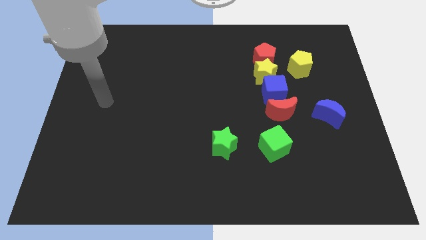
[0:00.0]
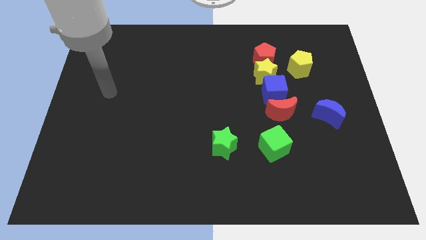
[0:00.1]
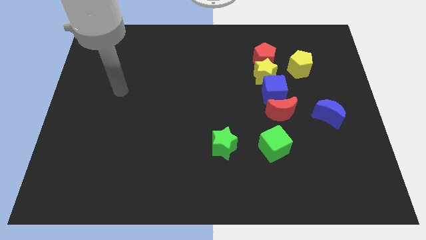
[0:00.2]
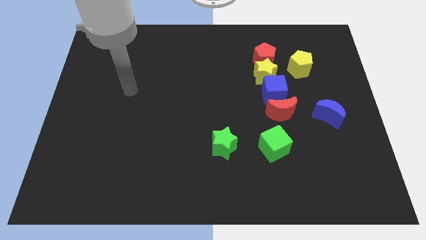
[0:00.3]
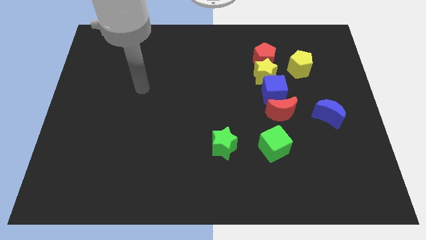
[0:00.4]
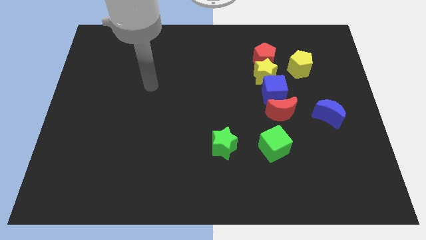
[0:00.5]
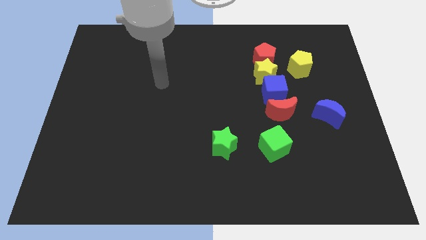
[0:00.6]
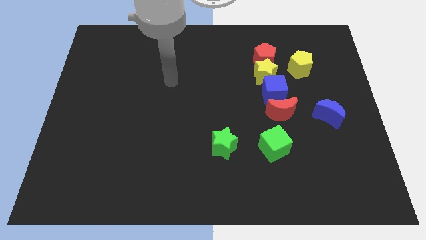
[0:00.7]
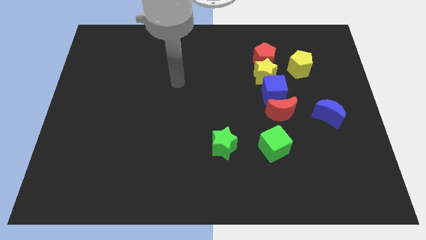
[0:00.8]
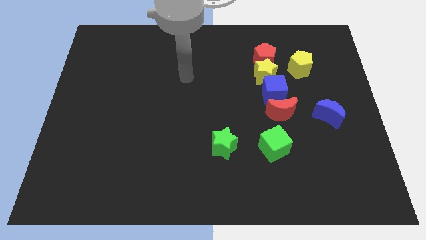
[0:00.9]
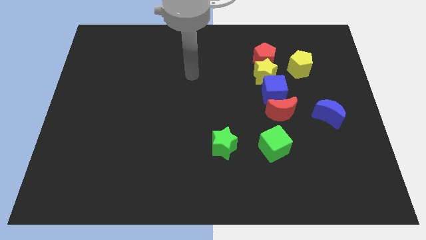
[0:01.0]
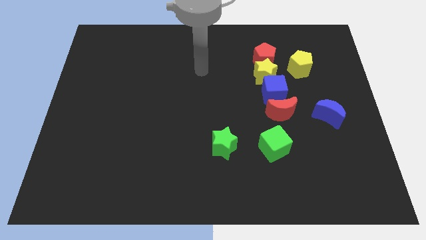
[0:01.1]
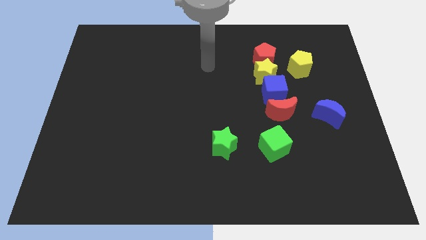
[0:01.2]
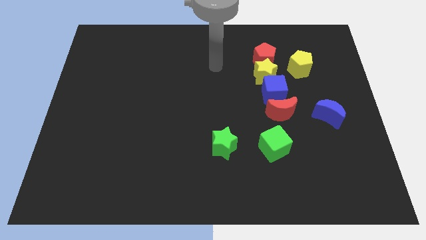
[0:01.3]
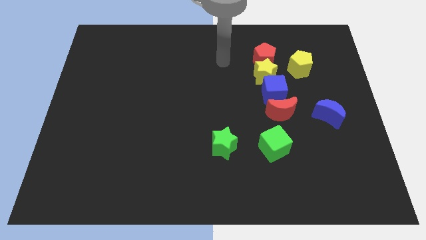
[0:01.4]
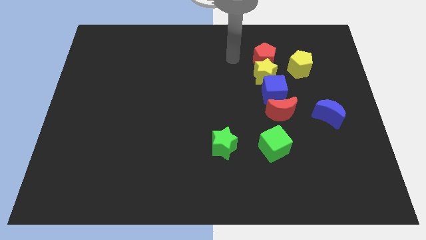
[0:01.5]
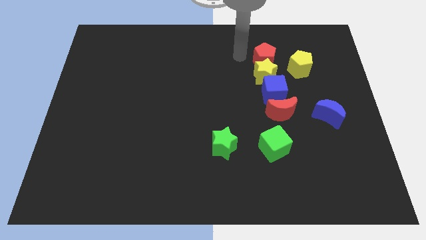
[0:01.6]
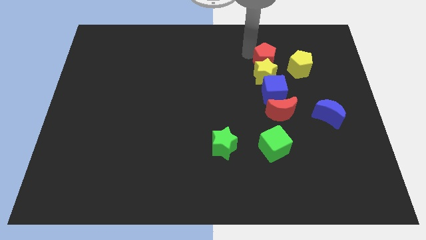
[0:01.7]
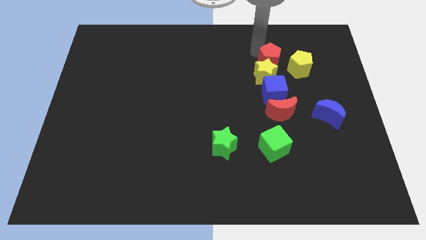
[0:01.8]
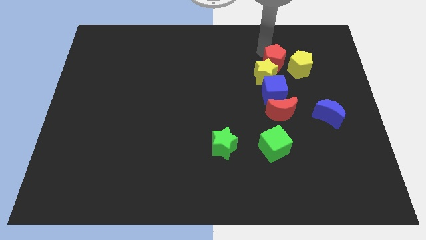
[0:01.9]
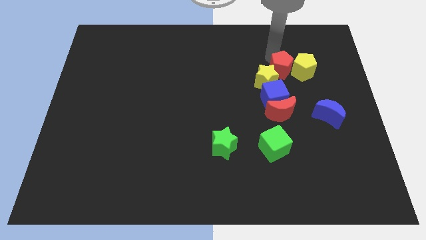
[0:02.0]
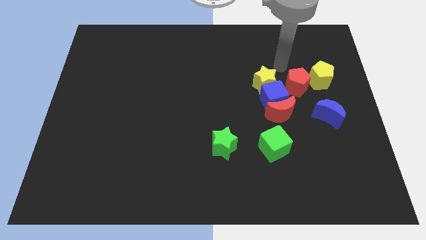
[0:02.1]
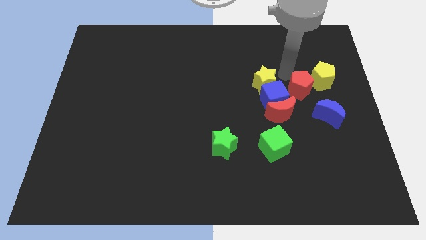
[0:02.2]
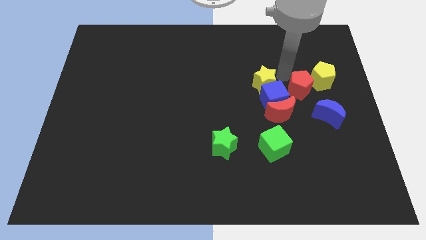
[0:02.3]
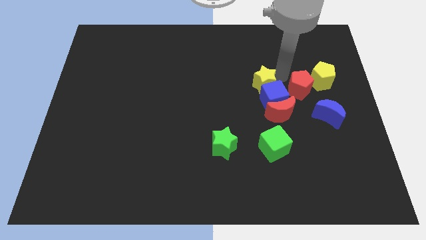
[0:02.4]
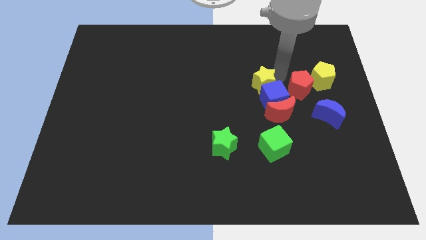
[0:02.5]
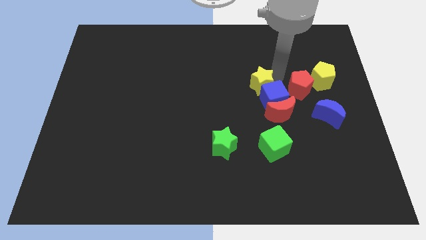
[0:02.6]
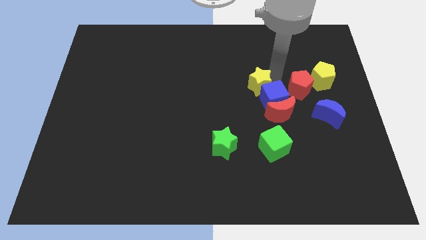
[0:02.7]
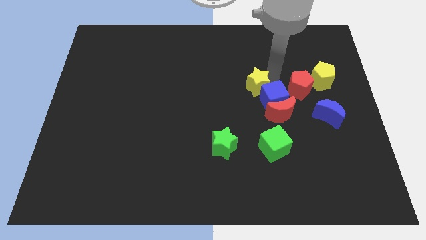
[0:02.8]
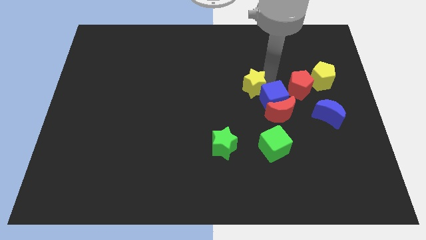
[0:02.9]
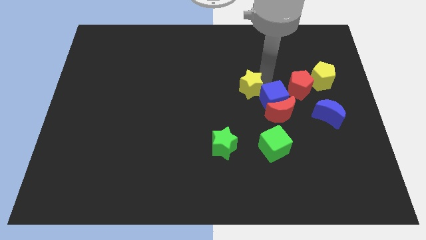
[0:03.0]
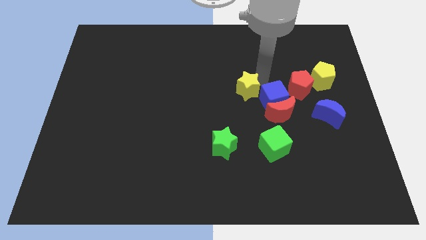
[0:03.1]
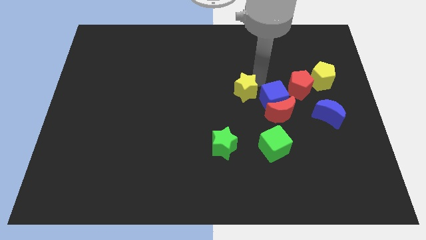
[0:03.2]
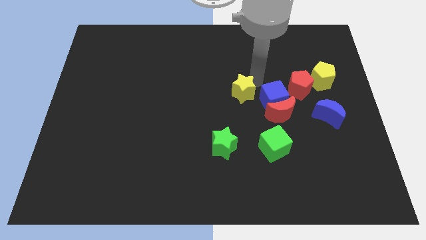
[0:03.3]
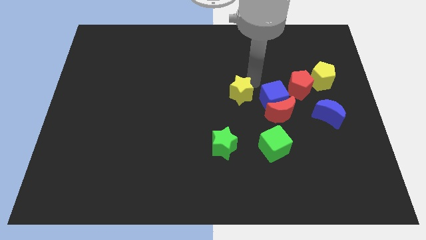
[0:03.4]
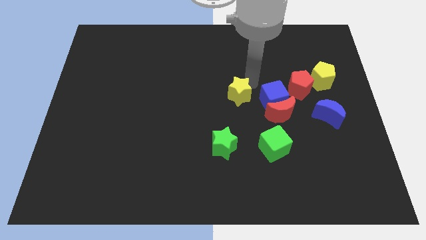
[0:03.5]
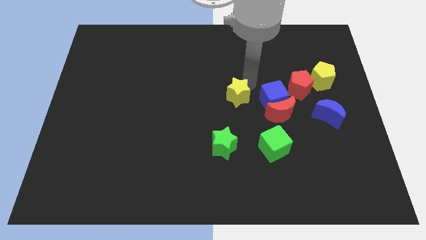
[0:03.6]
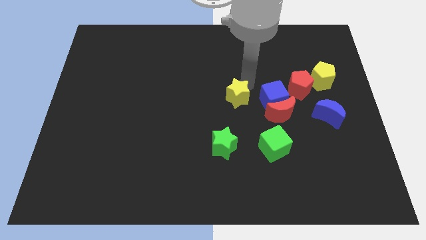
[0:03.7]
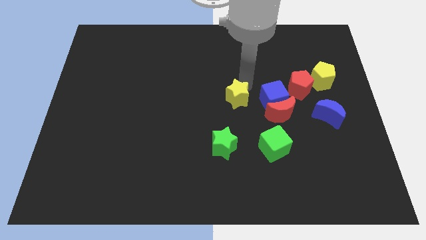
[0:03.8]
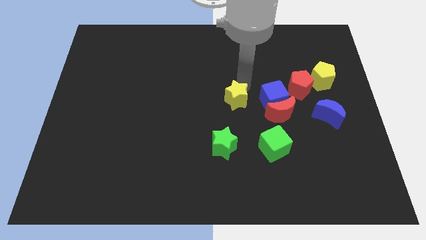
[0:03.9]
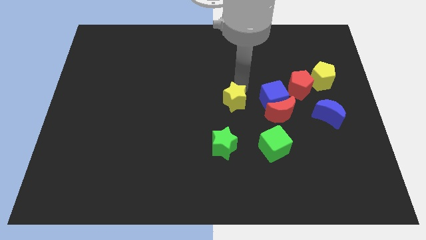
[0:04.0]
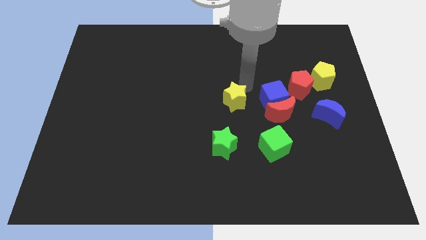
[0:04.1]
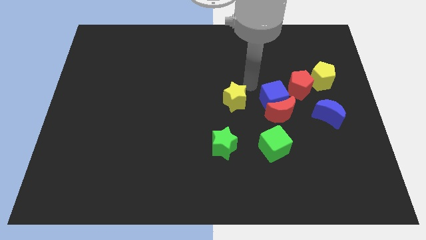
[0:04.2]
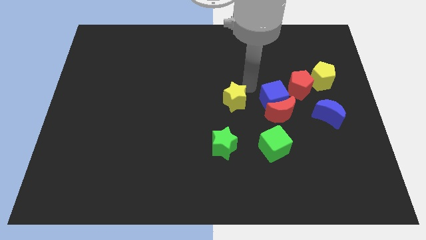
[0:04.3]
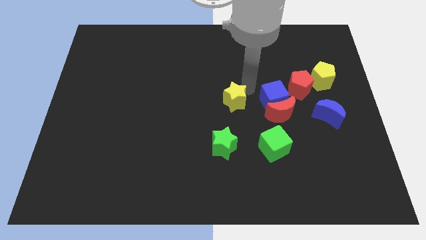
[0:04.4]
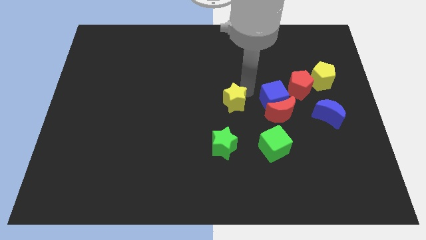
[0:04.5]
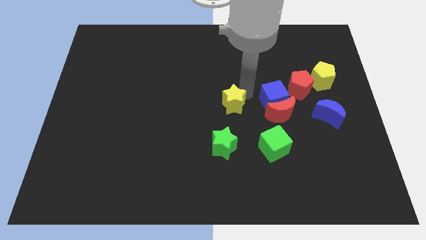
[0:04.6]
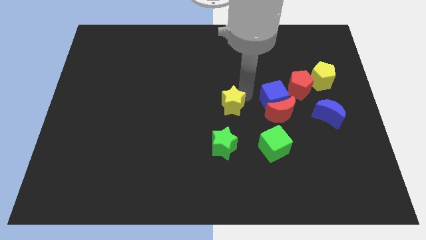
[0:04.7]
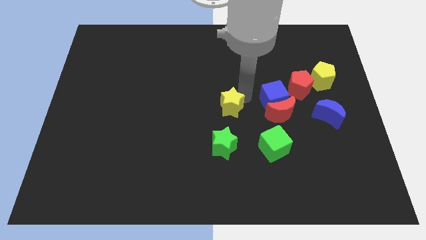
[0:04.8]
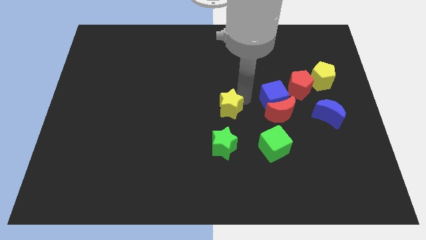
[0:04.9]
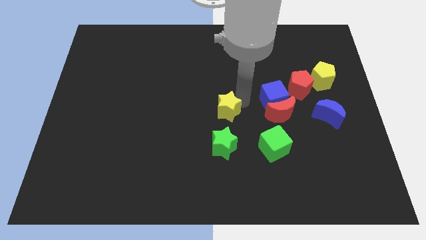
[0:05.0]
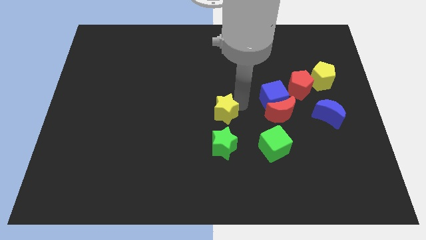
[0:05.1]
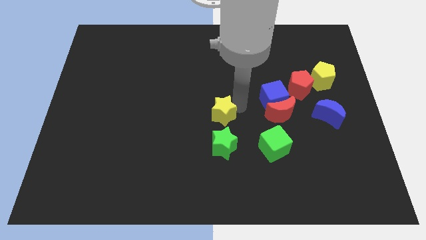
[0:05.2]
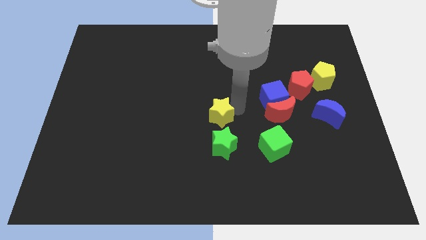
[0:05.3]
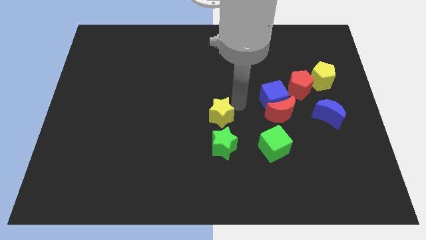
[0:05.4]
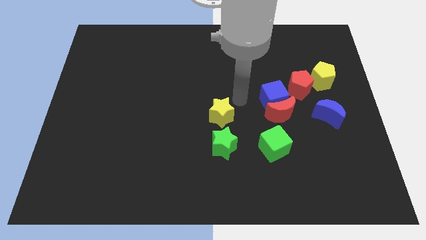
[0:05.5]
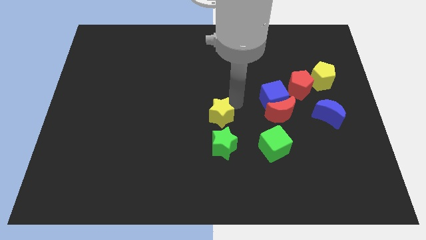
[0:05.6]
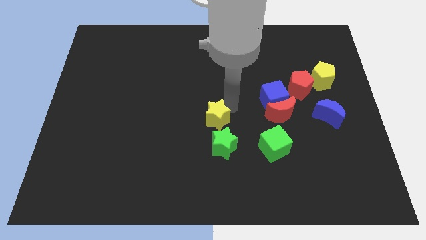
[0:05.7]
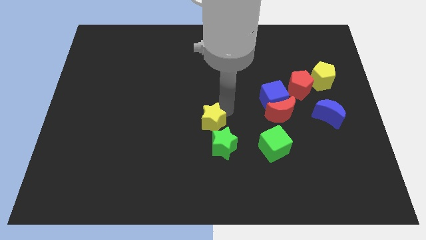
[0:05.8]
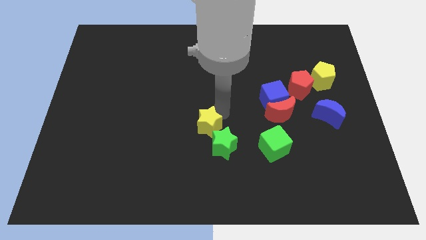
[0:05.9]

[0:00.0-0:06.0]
push the yellow star down and then to the left

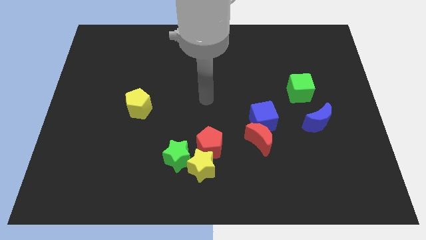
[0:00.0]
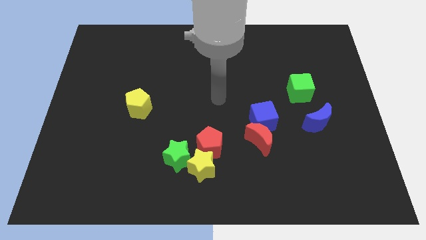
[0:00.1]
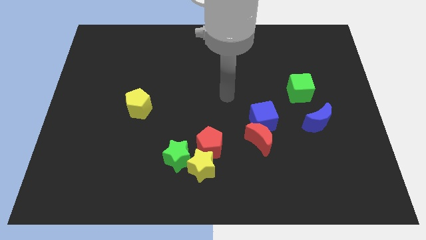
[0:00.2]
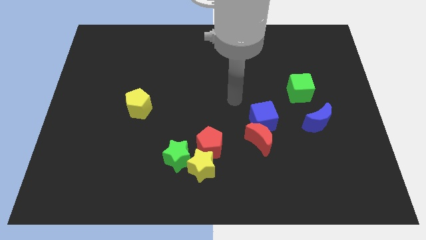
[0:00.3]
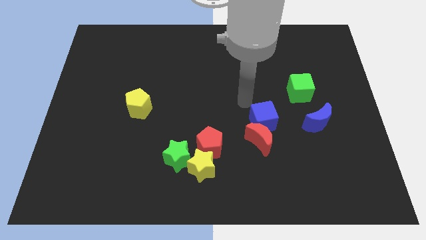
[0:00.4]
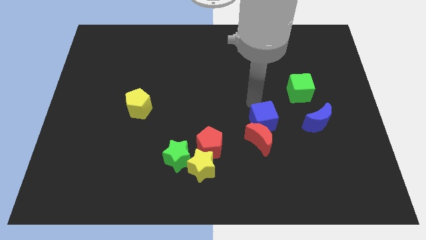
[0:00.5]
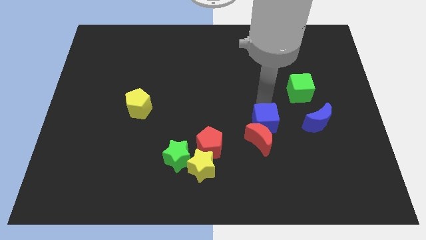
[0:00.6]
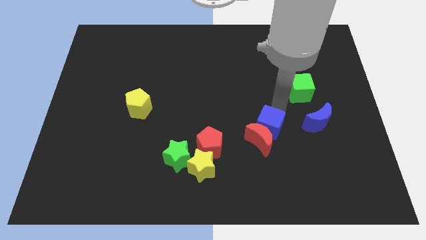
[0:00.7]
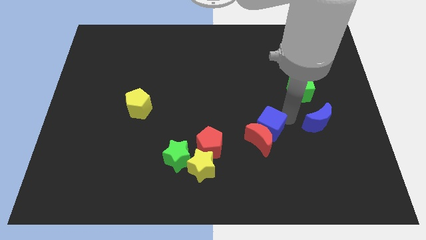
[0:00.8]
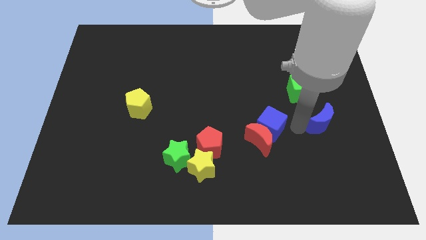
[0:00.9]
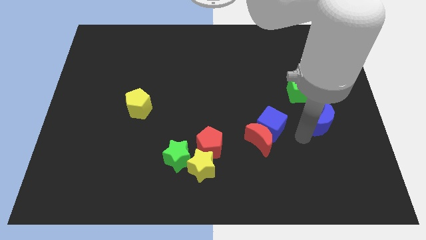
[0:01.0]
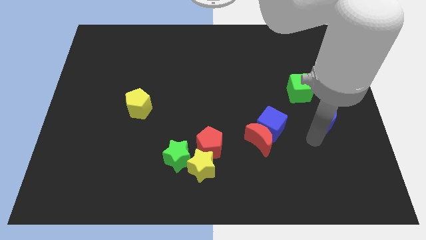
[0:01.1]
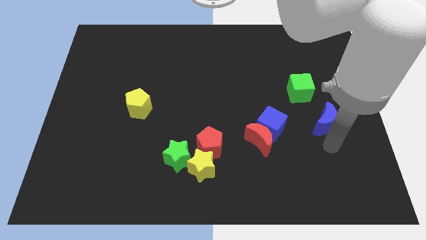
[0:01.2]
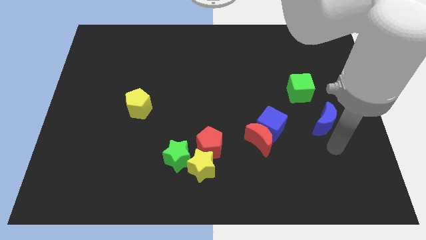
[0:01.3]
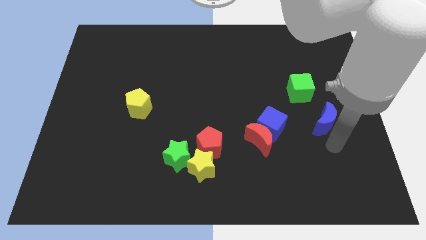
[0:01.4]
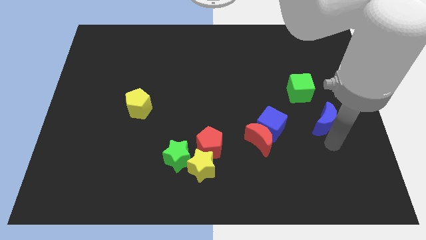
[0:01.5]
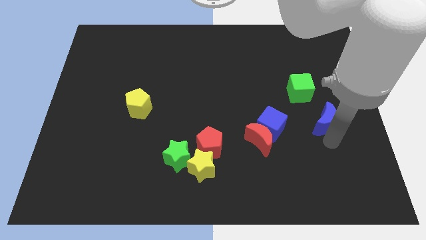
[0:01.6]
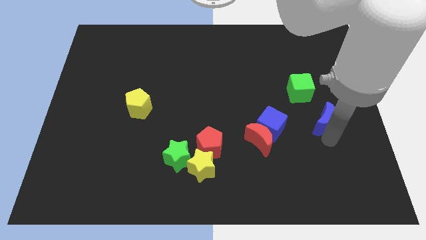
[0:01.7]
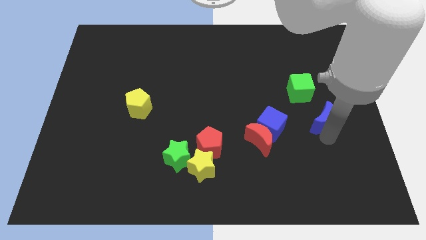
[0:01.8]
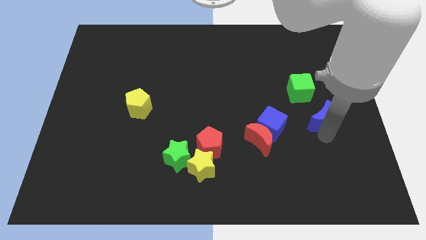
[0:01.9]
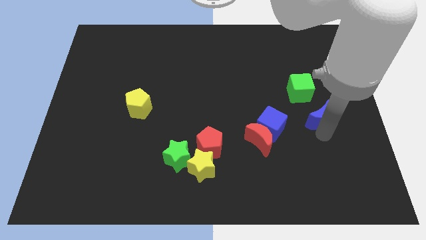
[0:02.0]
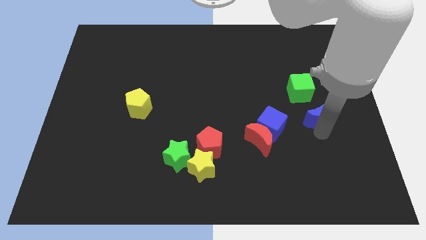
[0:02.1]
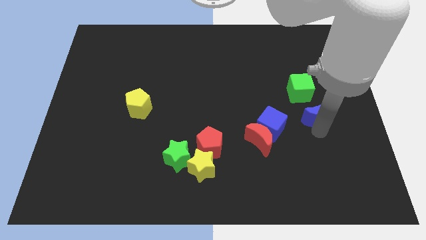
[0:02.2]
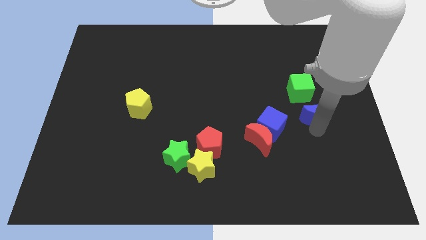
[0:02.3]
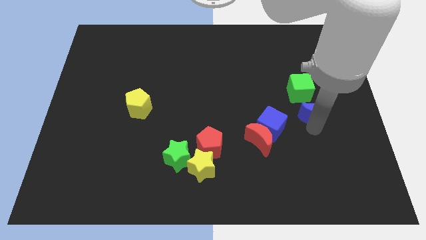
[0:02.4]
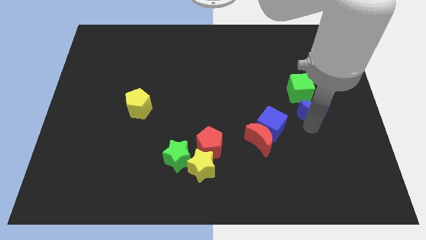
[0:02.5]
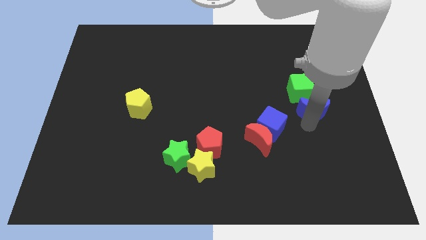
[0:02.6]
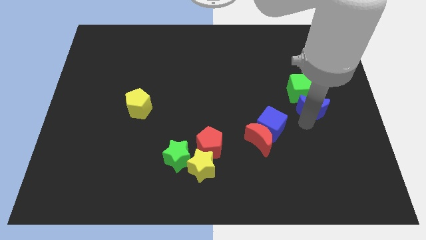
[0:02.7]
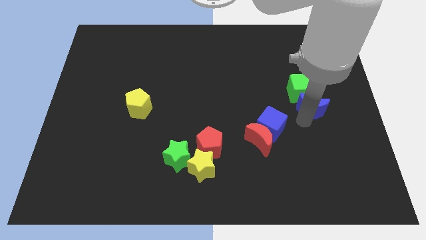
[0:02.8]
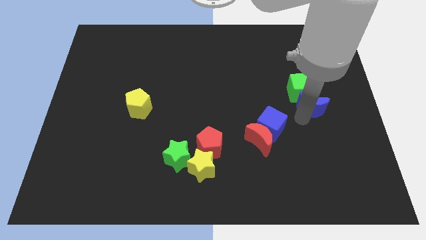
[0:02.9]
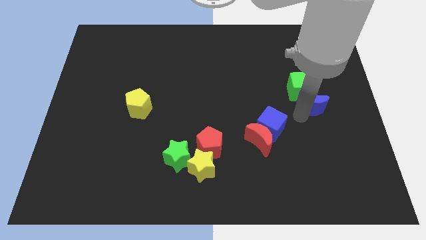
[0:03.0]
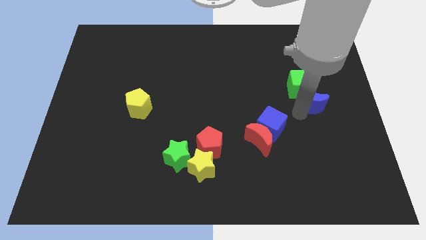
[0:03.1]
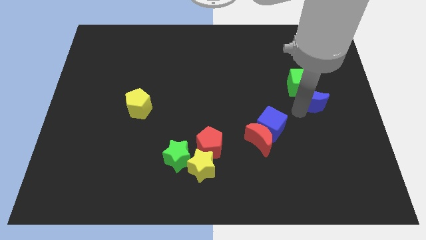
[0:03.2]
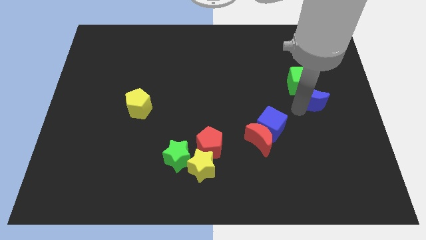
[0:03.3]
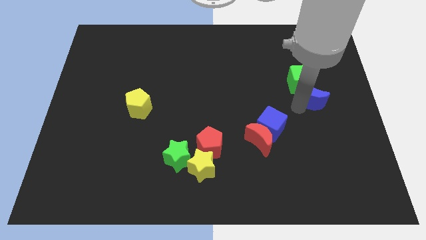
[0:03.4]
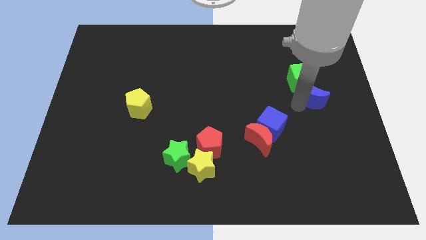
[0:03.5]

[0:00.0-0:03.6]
slightly slide the blue moon up
